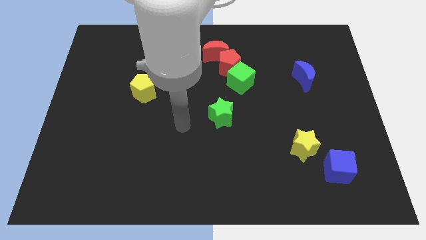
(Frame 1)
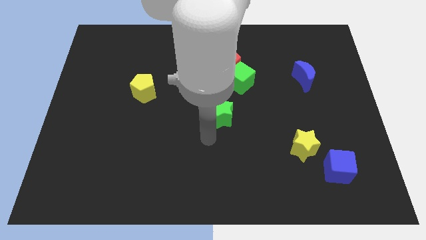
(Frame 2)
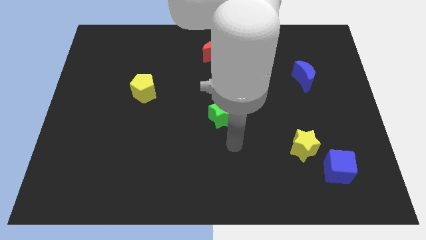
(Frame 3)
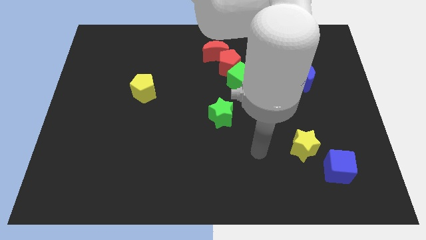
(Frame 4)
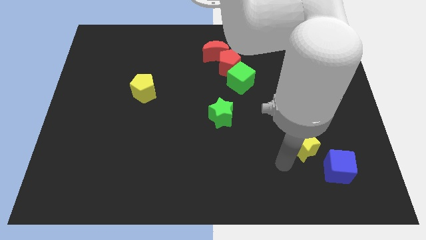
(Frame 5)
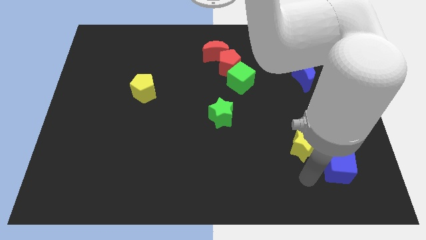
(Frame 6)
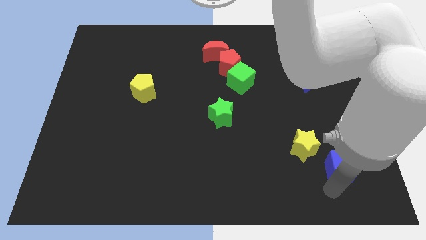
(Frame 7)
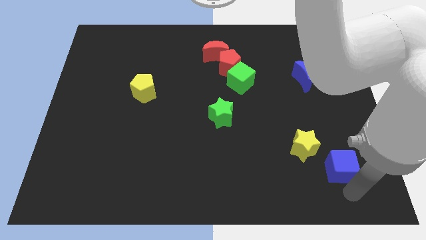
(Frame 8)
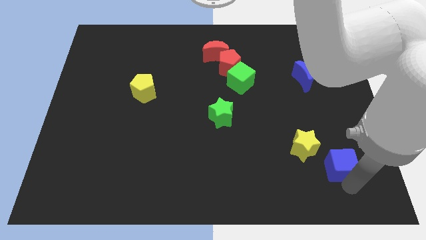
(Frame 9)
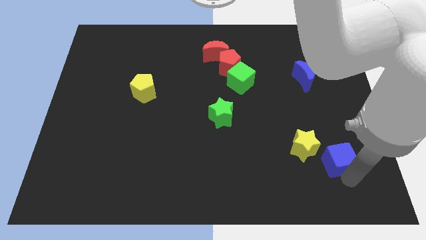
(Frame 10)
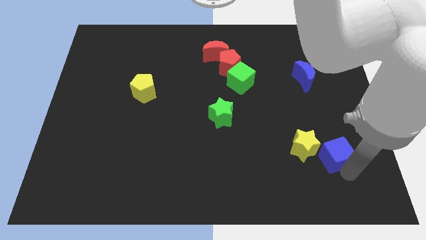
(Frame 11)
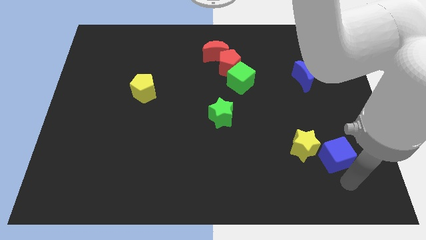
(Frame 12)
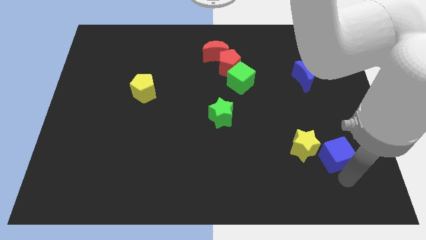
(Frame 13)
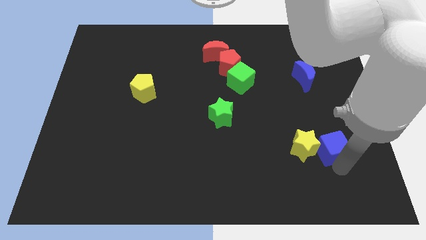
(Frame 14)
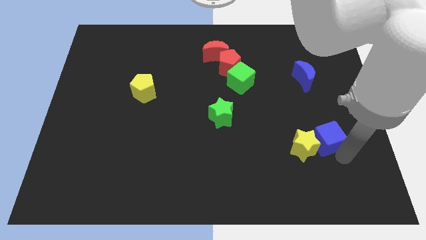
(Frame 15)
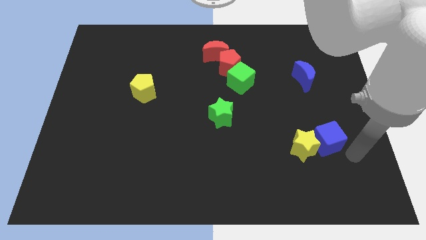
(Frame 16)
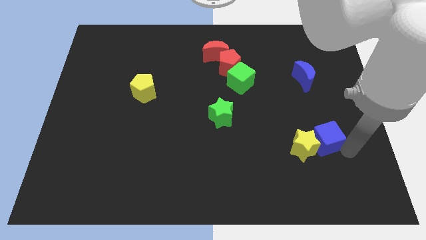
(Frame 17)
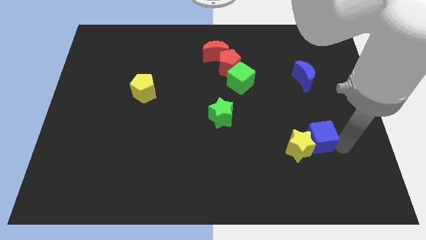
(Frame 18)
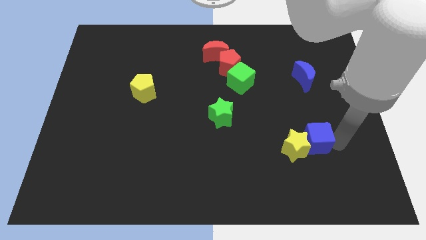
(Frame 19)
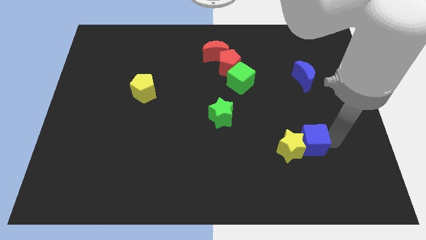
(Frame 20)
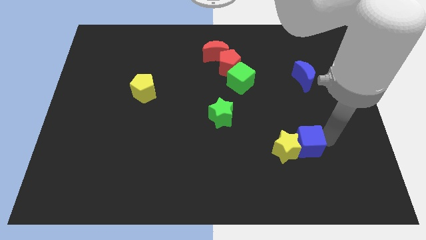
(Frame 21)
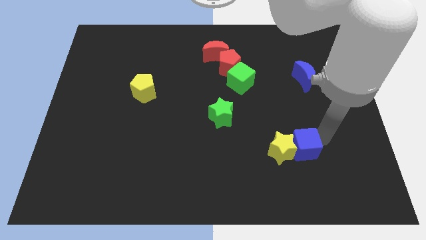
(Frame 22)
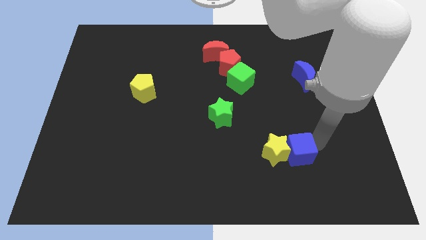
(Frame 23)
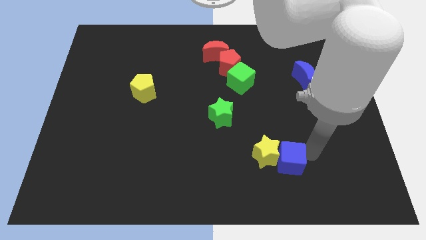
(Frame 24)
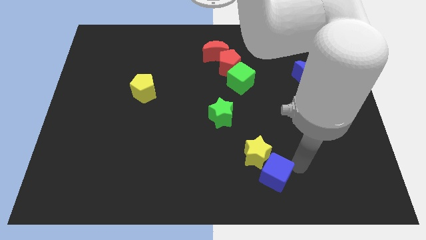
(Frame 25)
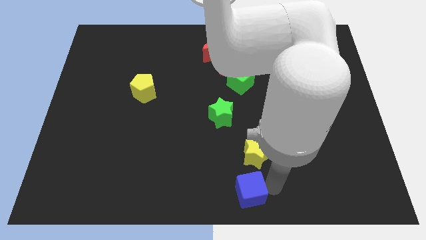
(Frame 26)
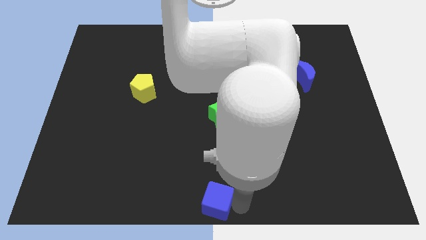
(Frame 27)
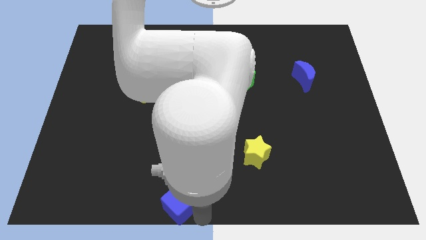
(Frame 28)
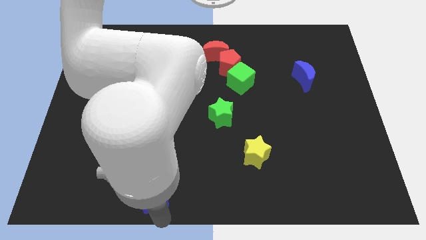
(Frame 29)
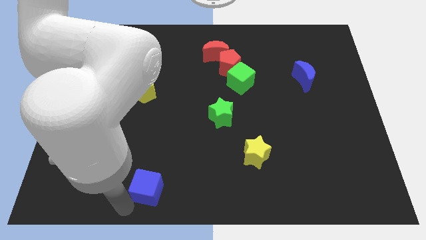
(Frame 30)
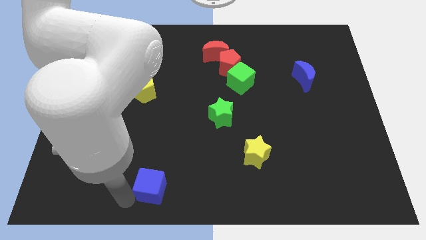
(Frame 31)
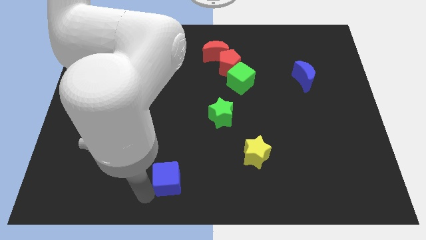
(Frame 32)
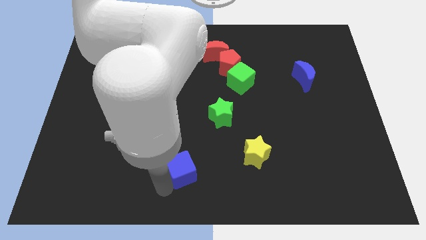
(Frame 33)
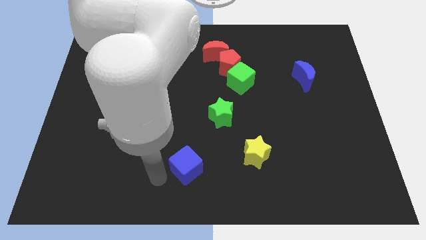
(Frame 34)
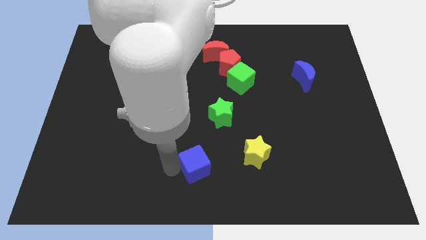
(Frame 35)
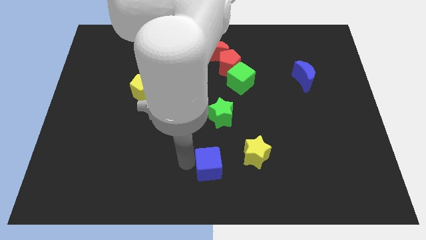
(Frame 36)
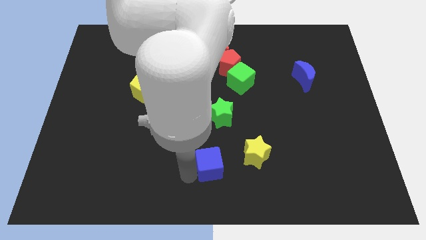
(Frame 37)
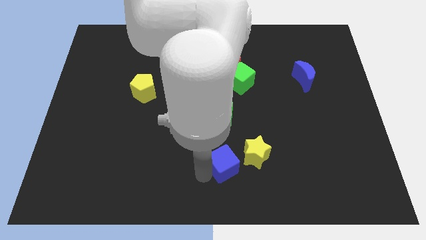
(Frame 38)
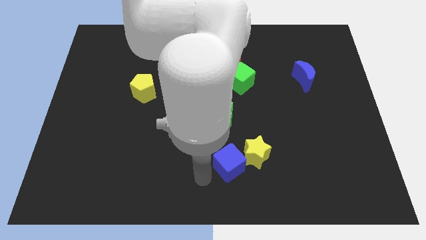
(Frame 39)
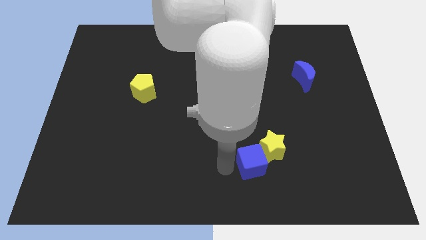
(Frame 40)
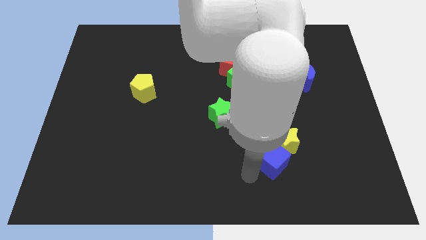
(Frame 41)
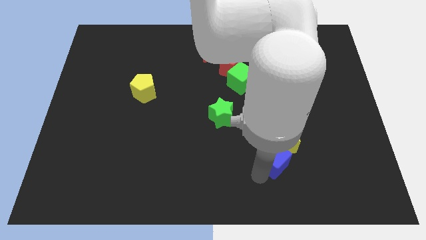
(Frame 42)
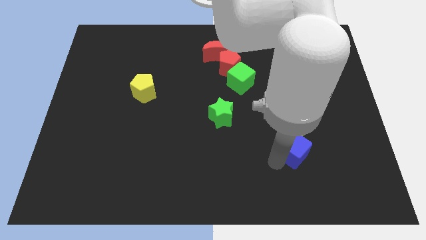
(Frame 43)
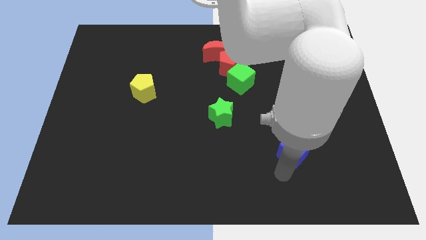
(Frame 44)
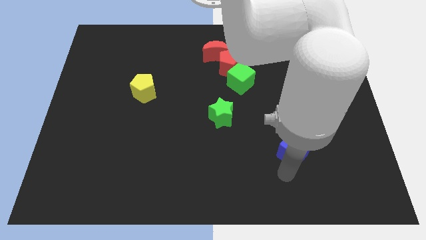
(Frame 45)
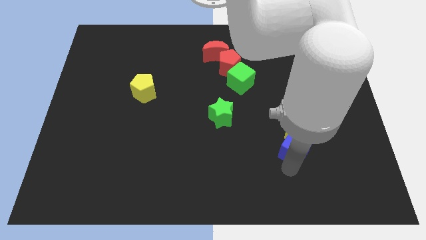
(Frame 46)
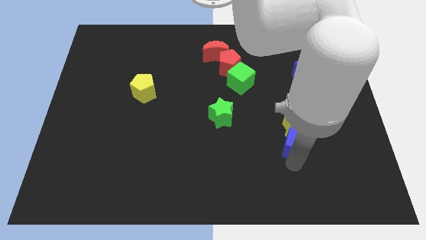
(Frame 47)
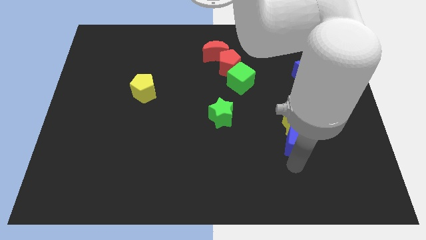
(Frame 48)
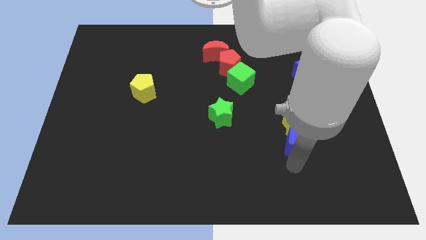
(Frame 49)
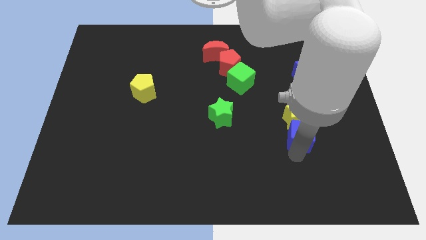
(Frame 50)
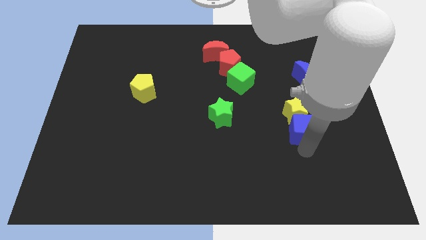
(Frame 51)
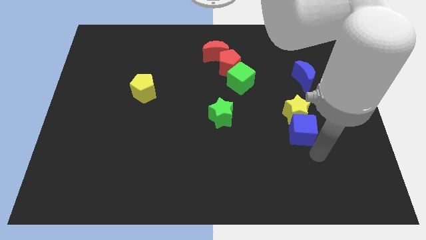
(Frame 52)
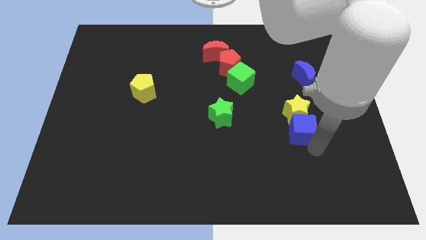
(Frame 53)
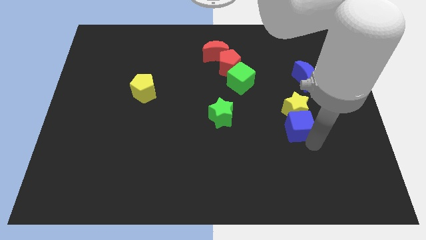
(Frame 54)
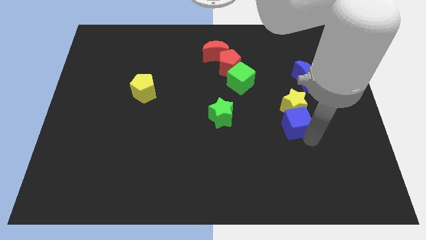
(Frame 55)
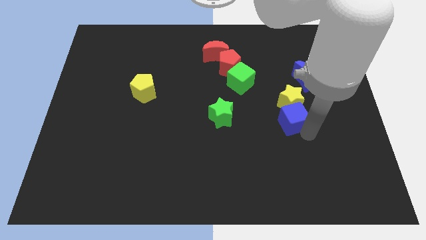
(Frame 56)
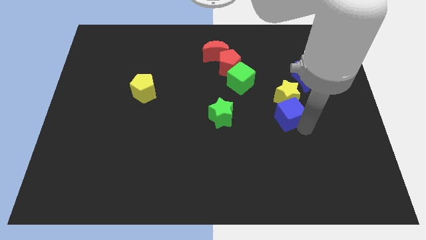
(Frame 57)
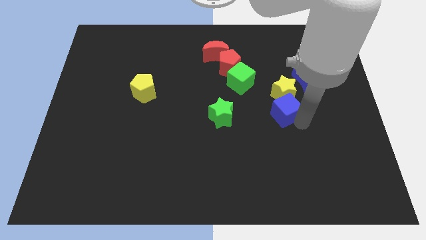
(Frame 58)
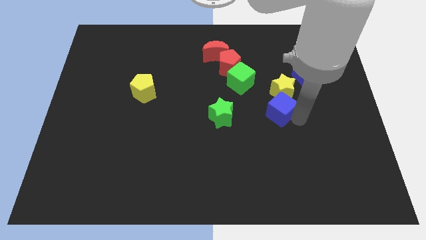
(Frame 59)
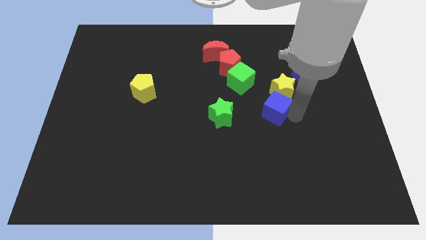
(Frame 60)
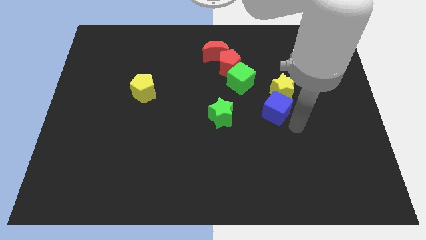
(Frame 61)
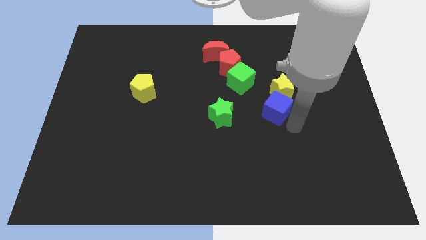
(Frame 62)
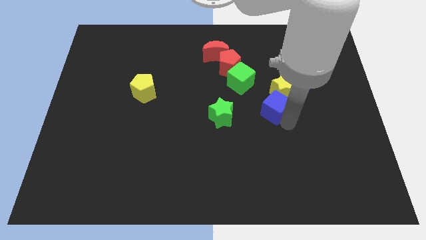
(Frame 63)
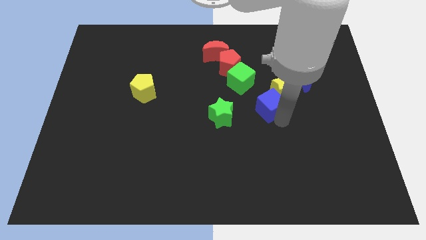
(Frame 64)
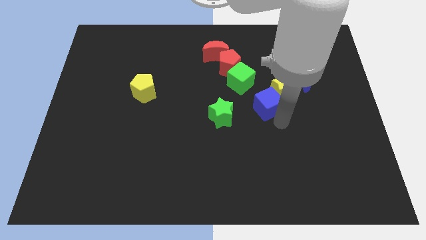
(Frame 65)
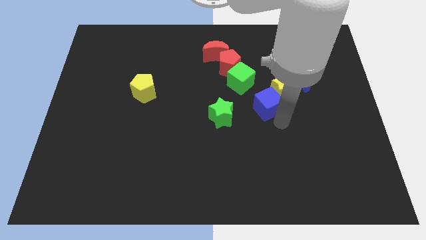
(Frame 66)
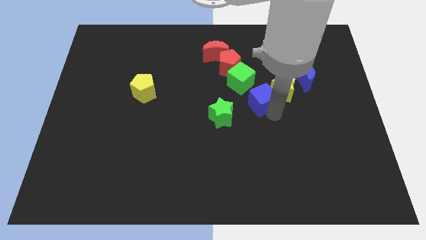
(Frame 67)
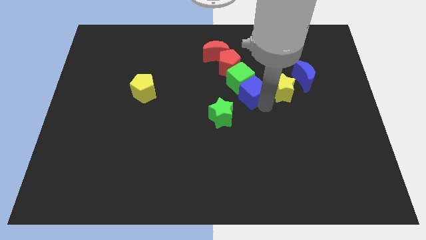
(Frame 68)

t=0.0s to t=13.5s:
put the blue cube to the green cube

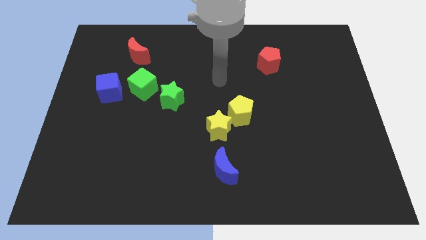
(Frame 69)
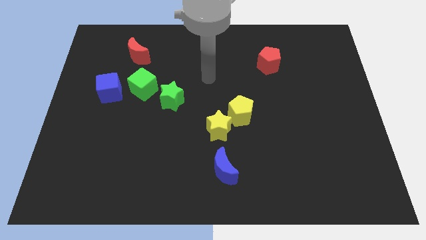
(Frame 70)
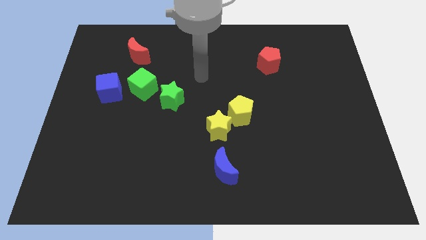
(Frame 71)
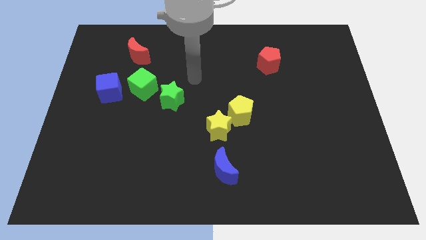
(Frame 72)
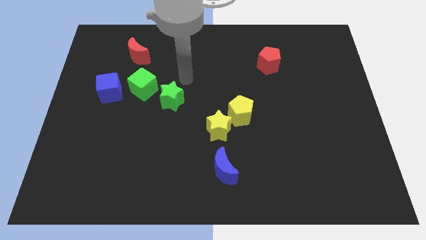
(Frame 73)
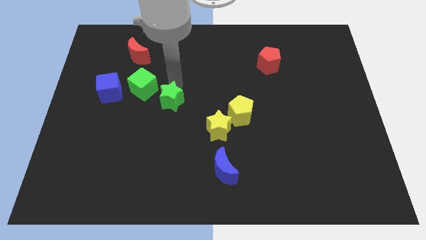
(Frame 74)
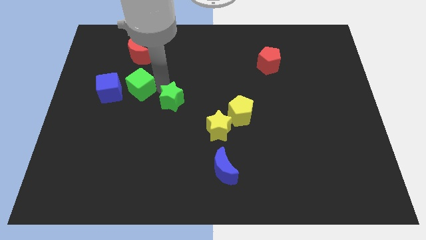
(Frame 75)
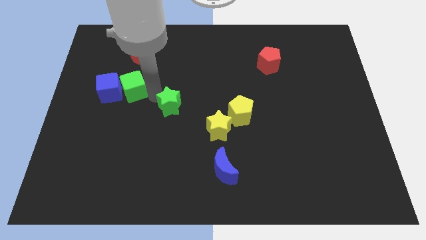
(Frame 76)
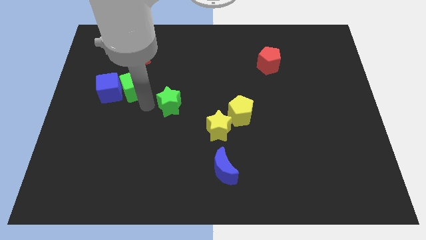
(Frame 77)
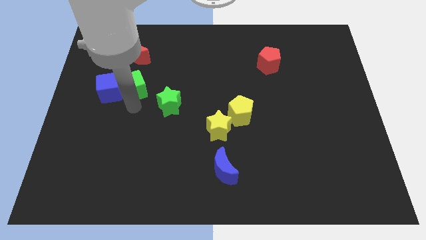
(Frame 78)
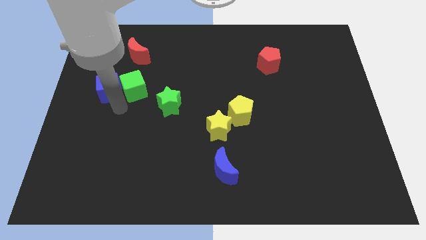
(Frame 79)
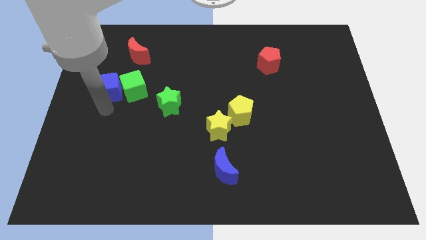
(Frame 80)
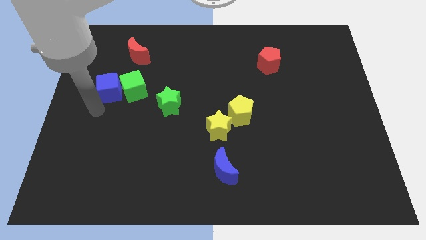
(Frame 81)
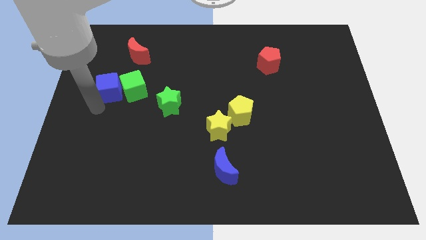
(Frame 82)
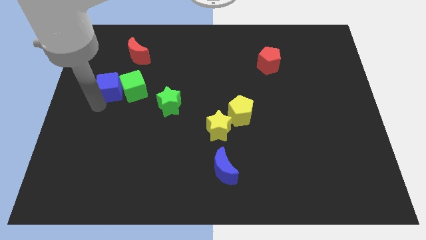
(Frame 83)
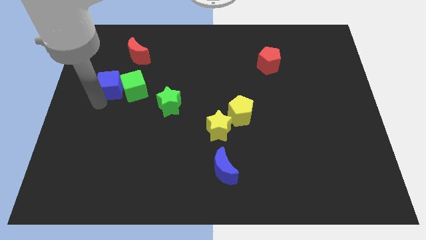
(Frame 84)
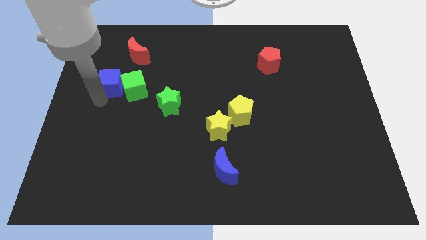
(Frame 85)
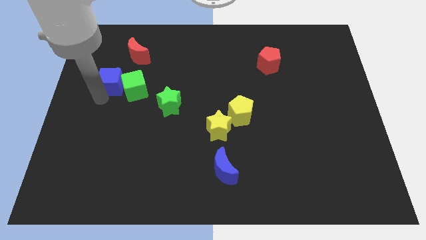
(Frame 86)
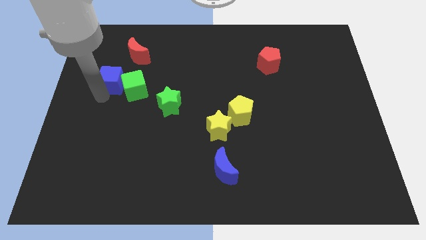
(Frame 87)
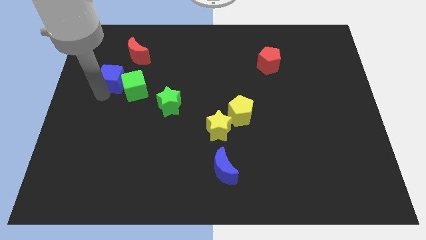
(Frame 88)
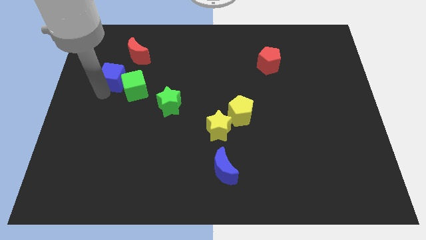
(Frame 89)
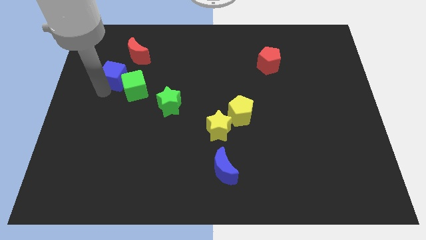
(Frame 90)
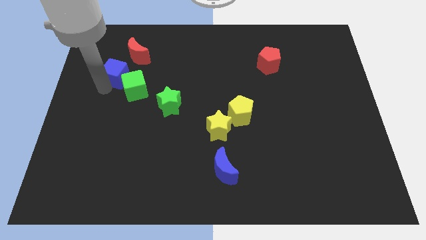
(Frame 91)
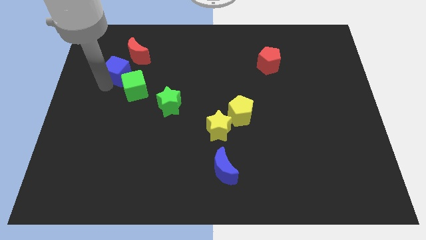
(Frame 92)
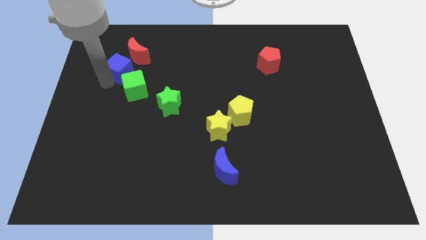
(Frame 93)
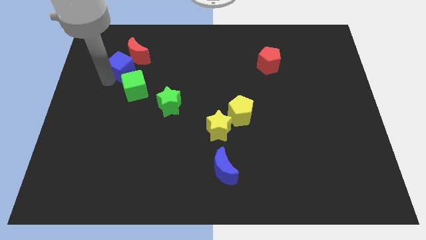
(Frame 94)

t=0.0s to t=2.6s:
push the blue cube to the red moon
